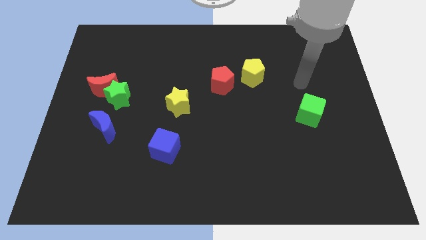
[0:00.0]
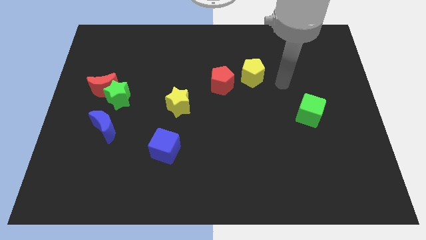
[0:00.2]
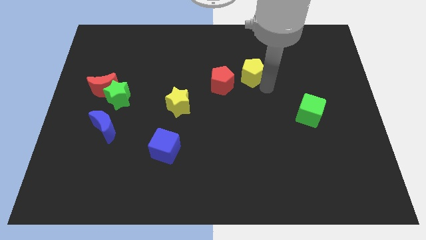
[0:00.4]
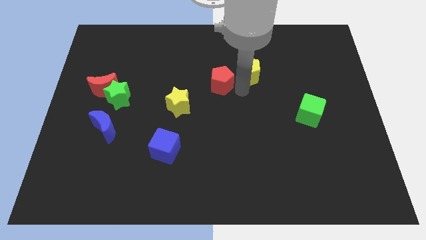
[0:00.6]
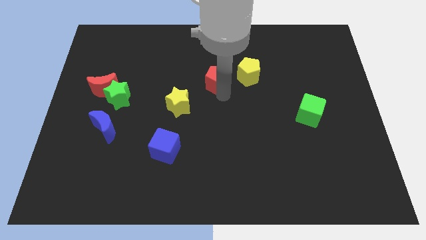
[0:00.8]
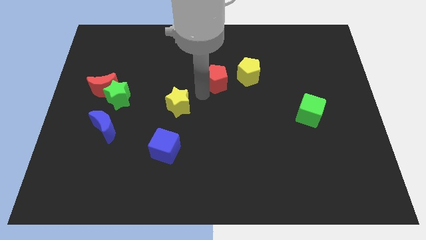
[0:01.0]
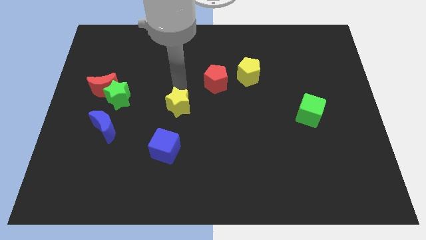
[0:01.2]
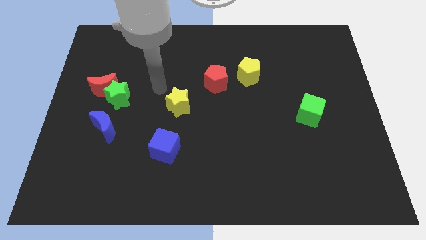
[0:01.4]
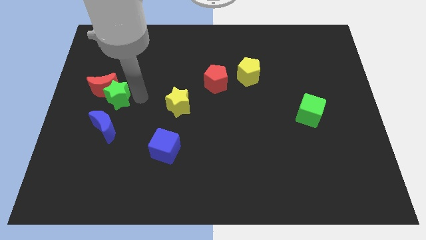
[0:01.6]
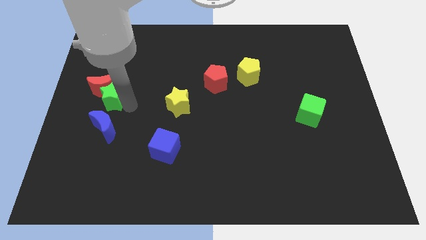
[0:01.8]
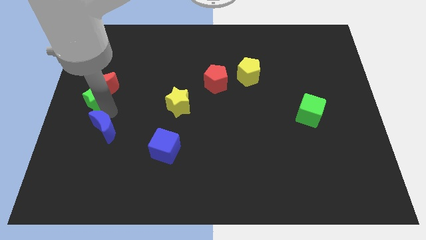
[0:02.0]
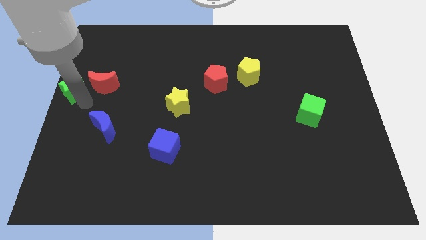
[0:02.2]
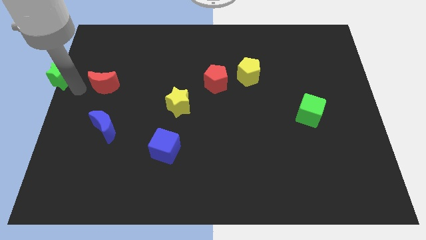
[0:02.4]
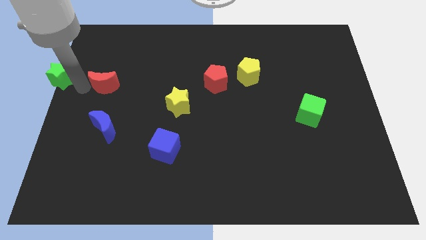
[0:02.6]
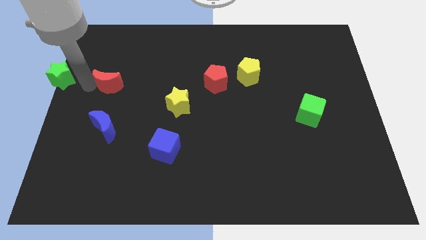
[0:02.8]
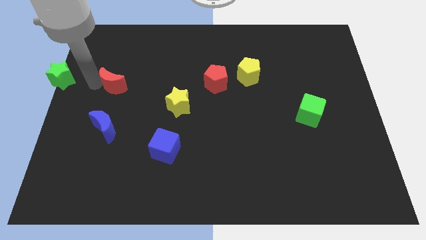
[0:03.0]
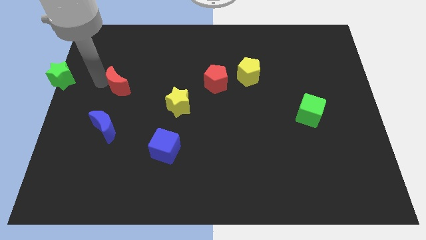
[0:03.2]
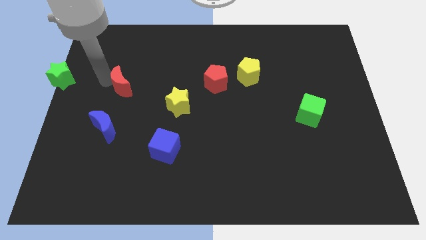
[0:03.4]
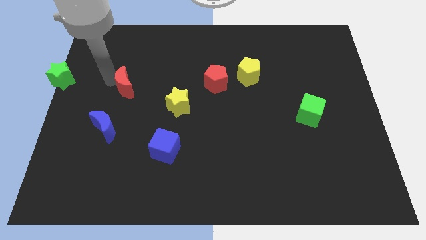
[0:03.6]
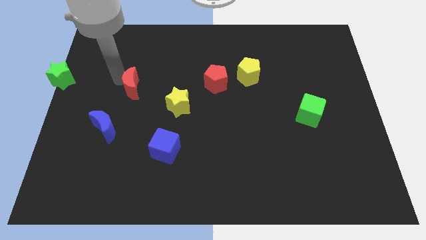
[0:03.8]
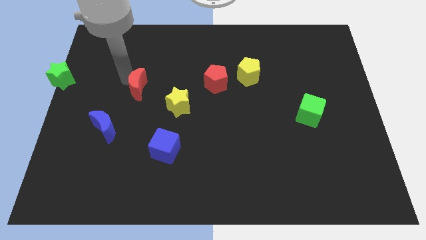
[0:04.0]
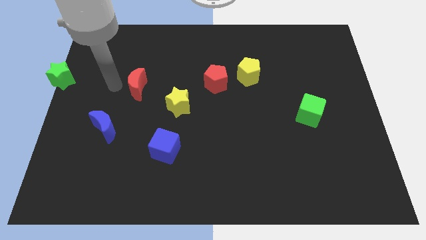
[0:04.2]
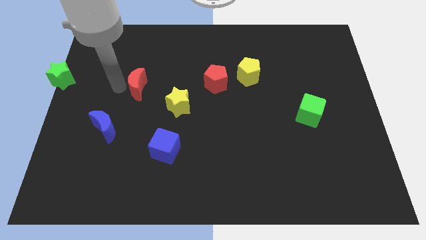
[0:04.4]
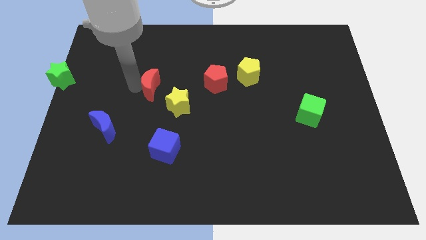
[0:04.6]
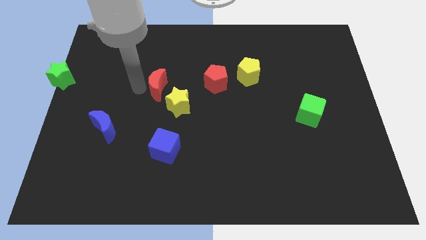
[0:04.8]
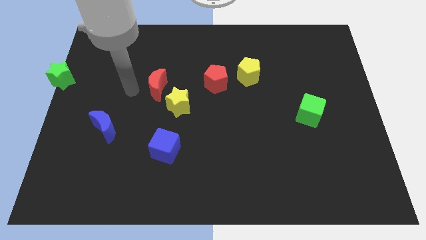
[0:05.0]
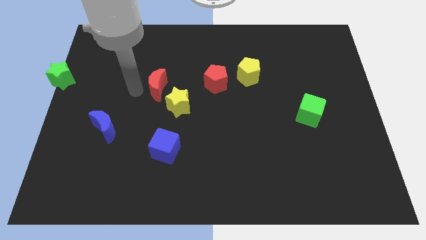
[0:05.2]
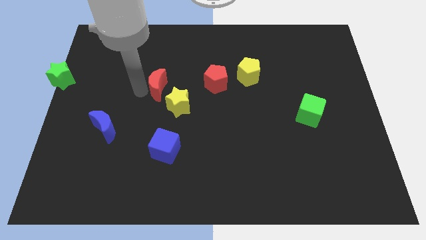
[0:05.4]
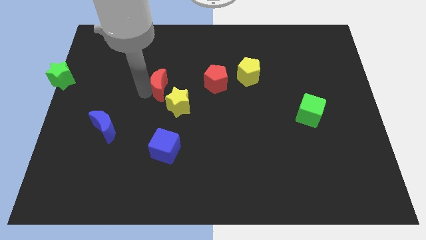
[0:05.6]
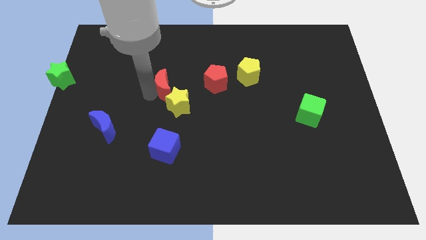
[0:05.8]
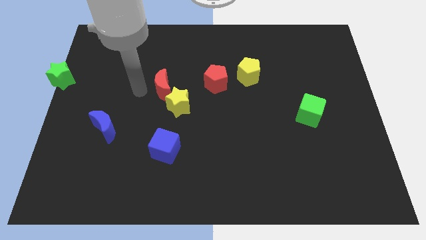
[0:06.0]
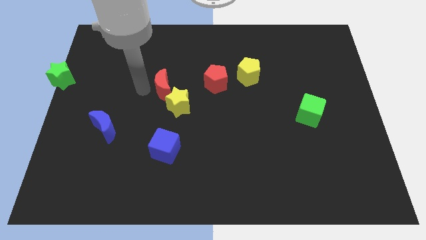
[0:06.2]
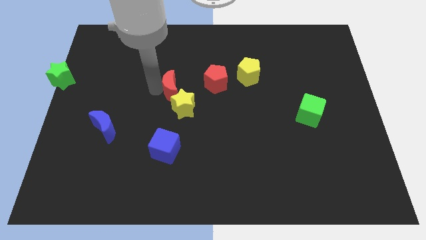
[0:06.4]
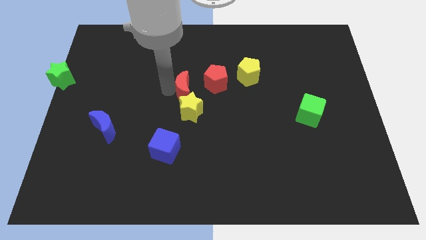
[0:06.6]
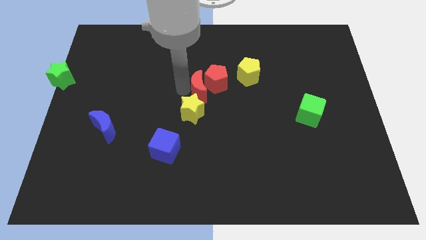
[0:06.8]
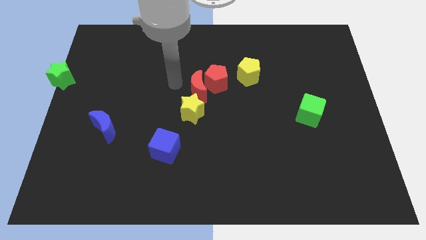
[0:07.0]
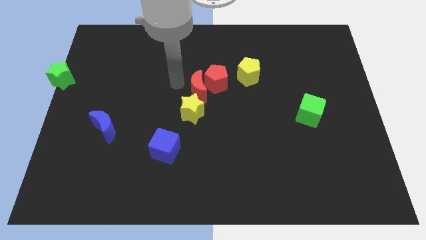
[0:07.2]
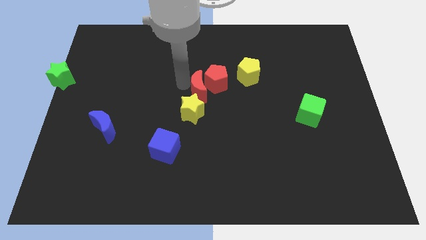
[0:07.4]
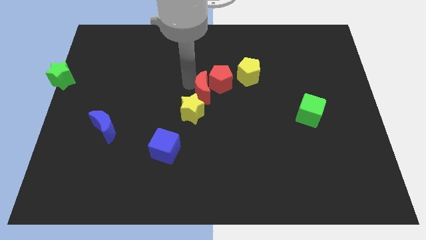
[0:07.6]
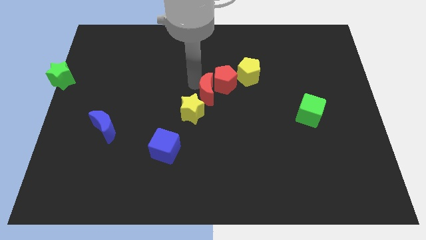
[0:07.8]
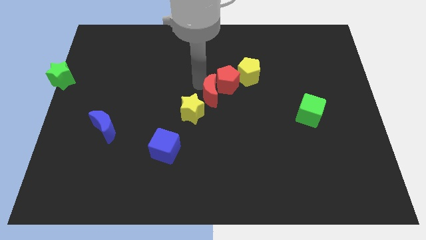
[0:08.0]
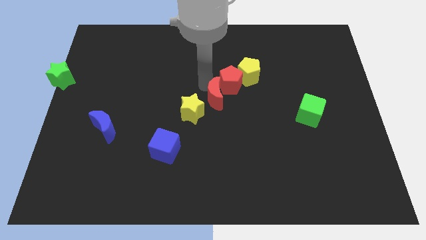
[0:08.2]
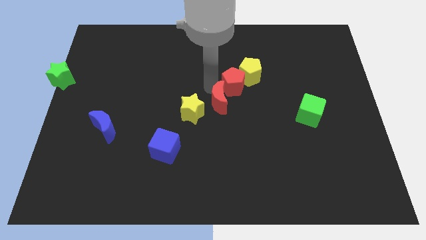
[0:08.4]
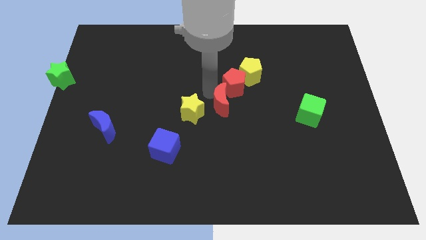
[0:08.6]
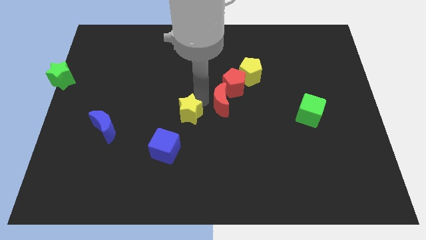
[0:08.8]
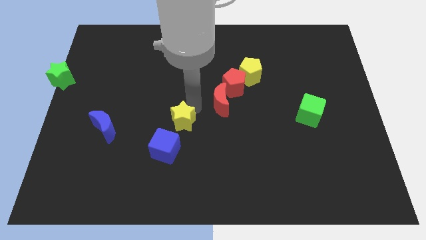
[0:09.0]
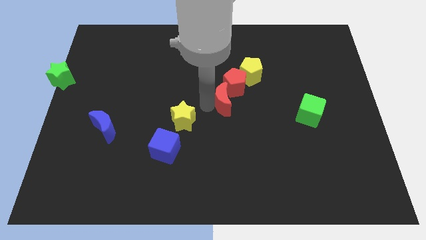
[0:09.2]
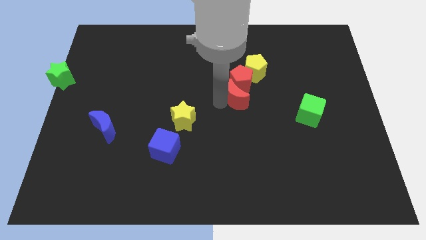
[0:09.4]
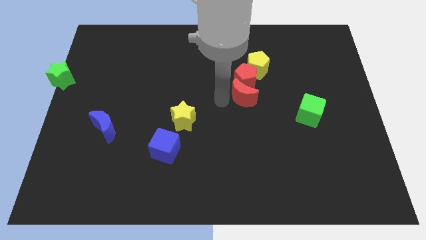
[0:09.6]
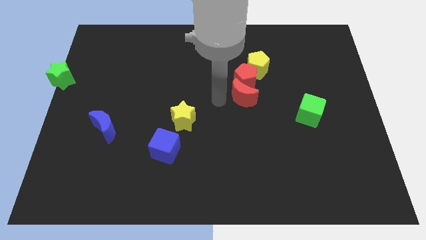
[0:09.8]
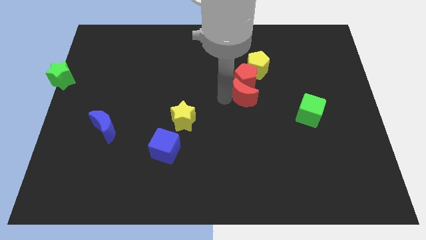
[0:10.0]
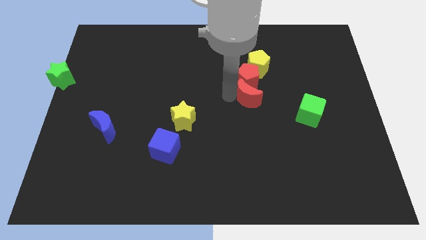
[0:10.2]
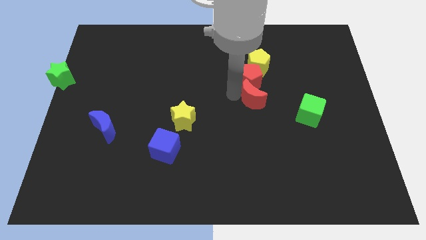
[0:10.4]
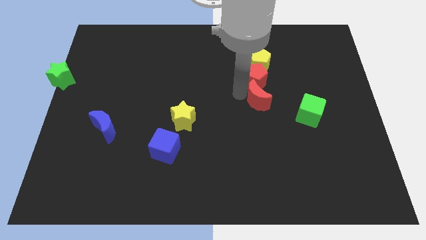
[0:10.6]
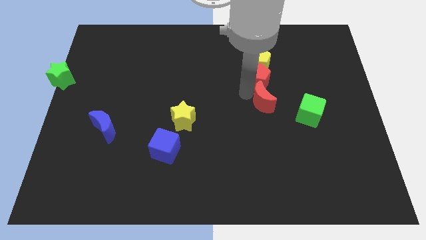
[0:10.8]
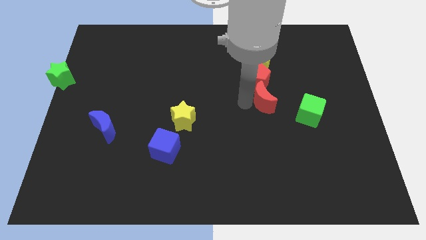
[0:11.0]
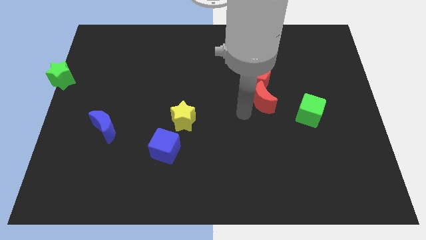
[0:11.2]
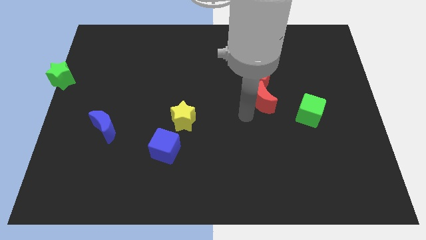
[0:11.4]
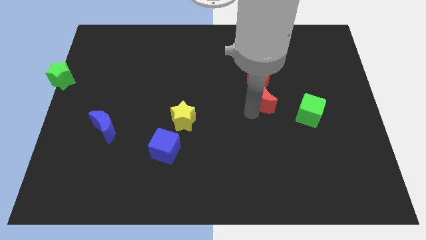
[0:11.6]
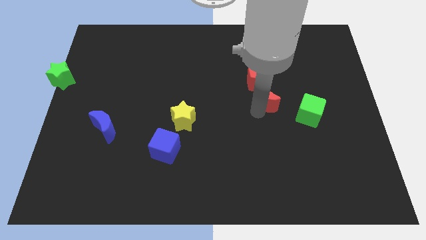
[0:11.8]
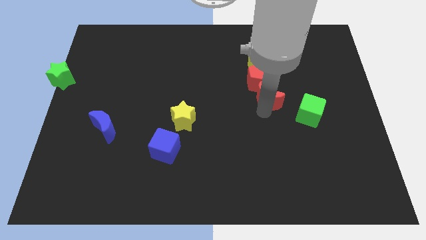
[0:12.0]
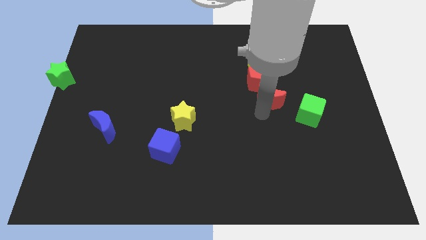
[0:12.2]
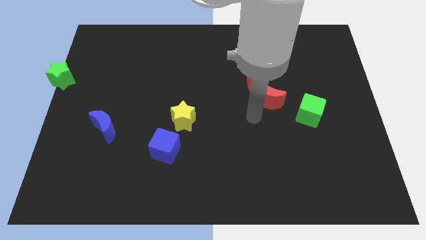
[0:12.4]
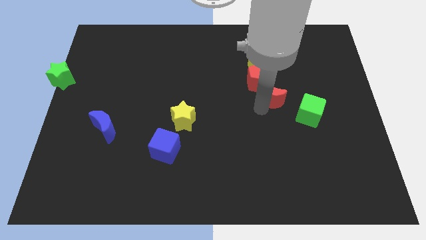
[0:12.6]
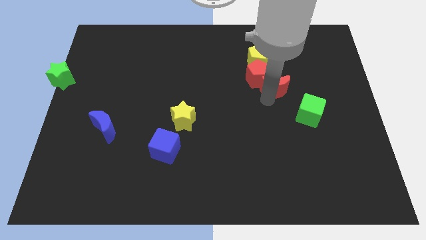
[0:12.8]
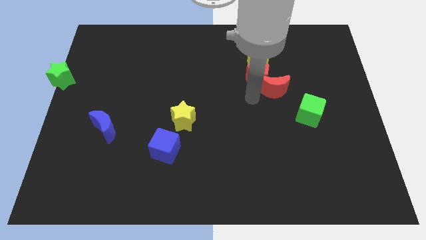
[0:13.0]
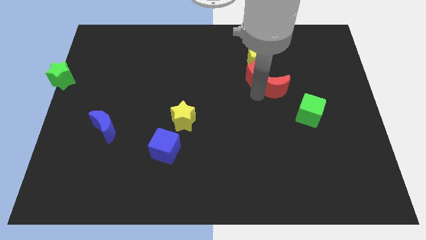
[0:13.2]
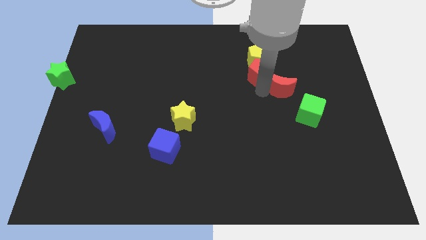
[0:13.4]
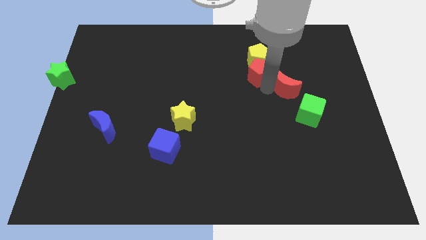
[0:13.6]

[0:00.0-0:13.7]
slide the red moon above the green cube

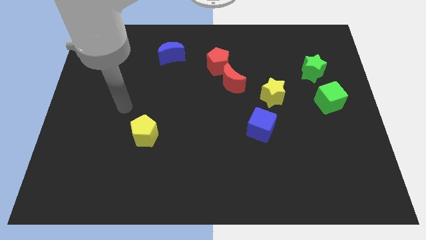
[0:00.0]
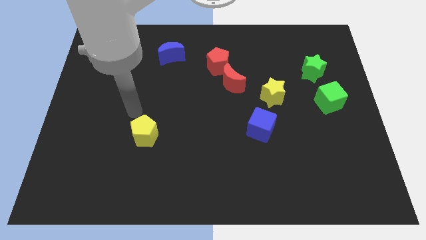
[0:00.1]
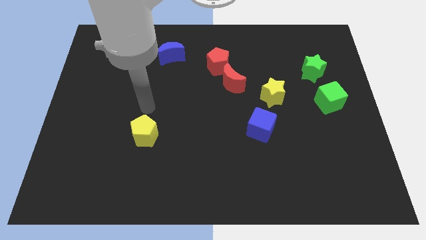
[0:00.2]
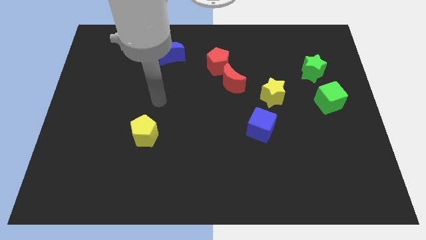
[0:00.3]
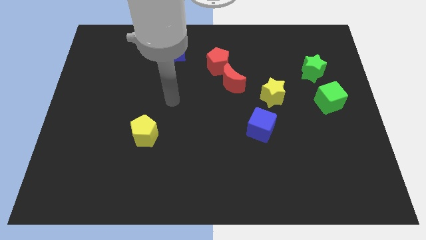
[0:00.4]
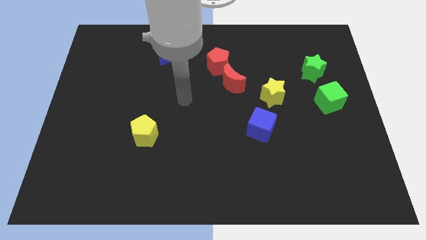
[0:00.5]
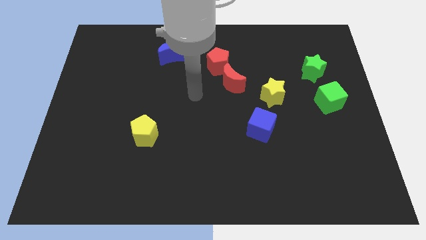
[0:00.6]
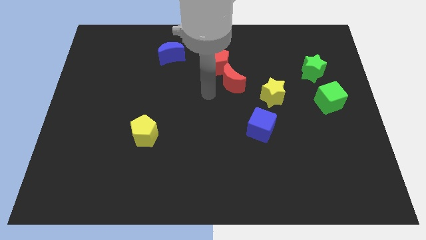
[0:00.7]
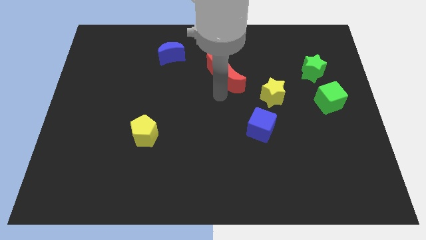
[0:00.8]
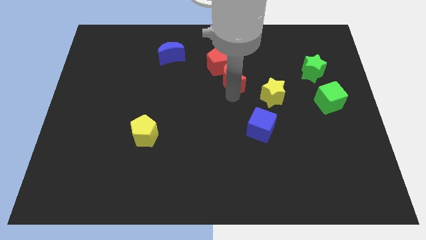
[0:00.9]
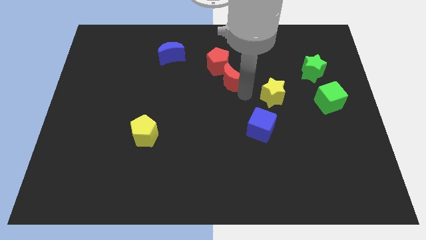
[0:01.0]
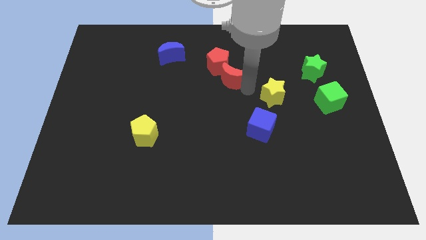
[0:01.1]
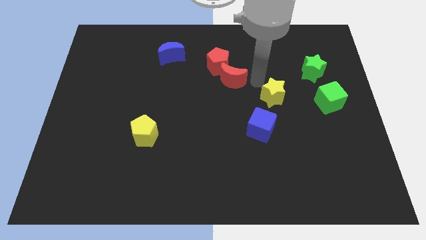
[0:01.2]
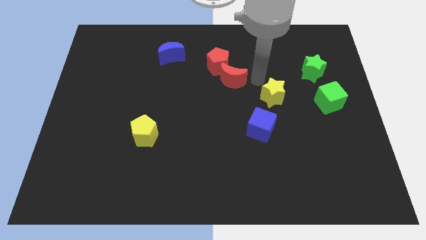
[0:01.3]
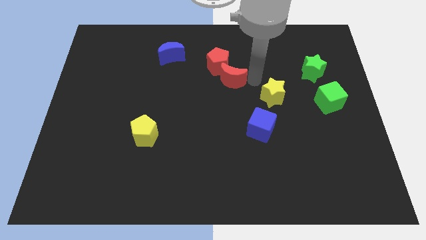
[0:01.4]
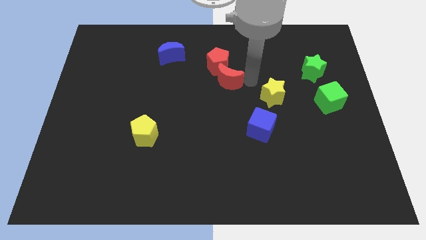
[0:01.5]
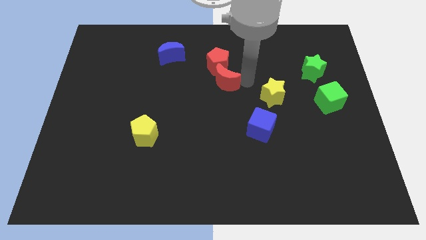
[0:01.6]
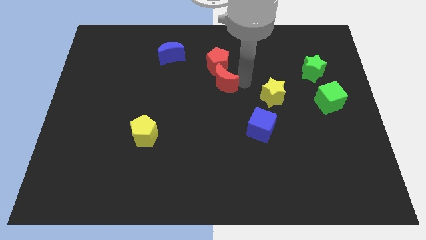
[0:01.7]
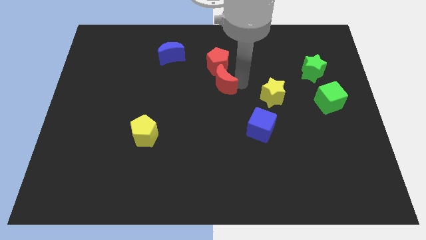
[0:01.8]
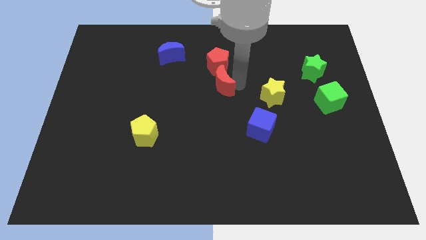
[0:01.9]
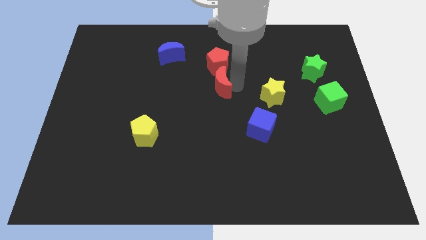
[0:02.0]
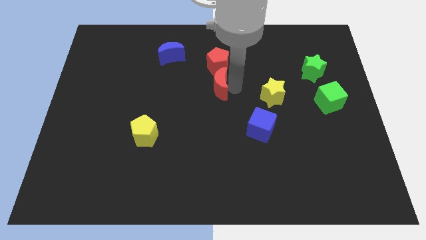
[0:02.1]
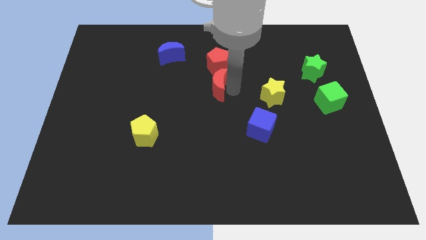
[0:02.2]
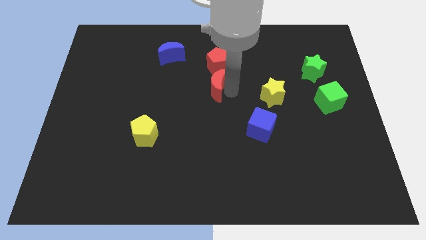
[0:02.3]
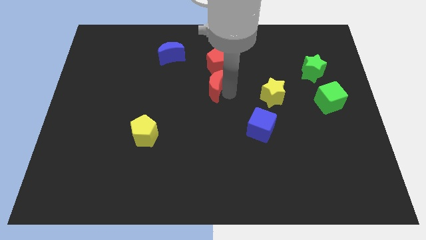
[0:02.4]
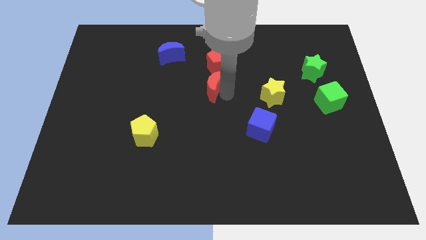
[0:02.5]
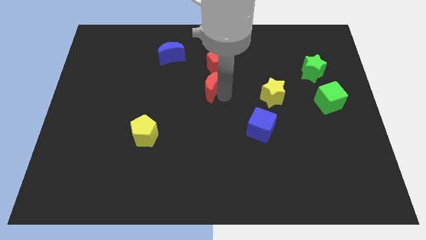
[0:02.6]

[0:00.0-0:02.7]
put the red moon to the bottom left side of the red pentagon
